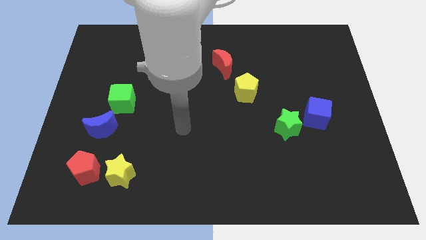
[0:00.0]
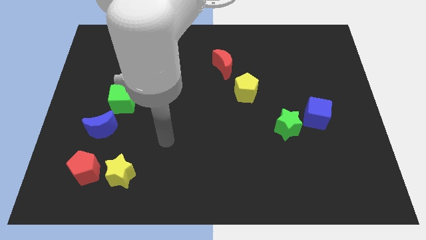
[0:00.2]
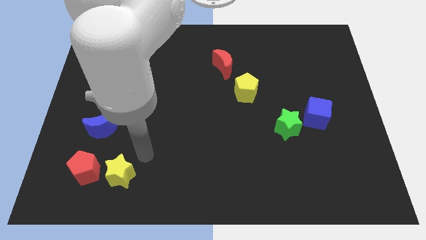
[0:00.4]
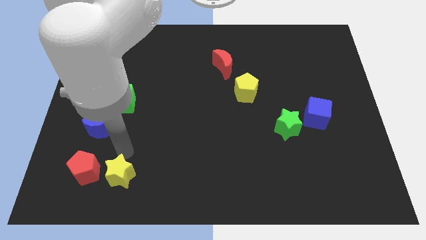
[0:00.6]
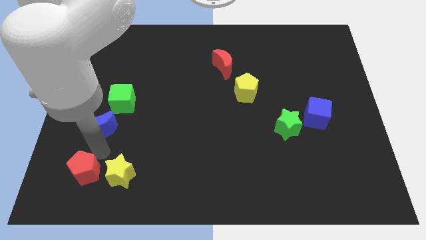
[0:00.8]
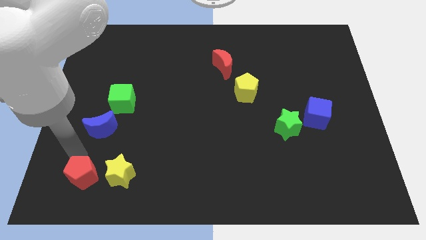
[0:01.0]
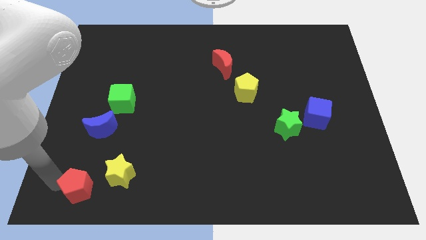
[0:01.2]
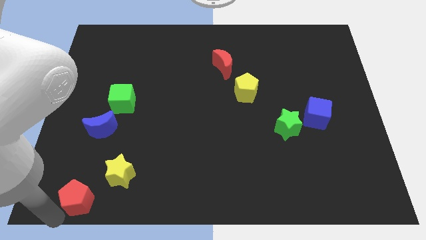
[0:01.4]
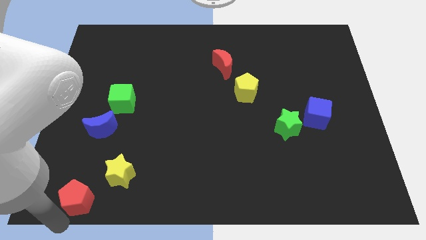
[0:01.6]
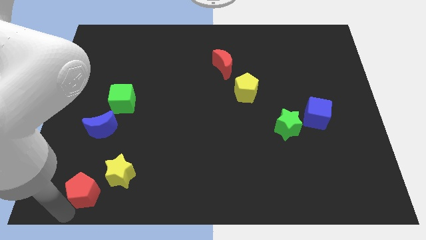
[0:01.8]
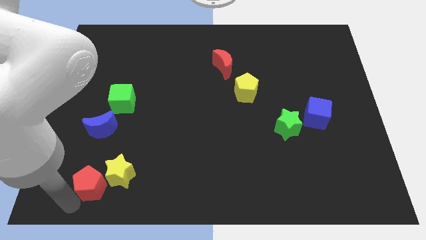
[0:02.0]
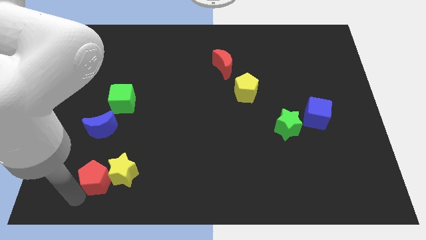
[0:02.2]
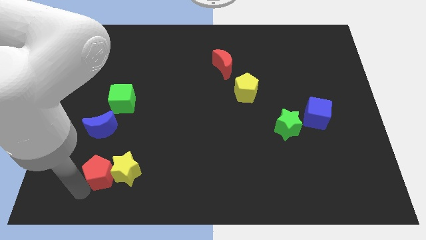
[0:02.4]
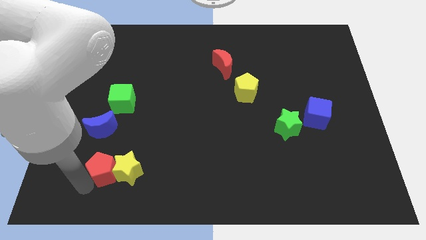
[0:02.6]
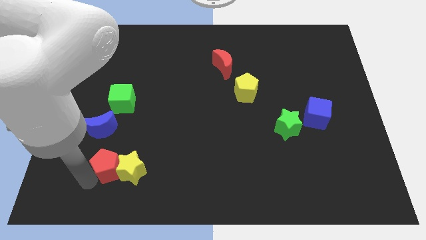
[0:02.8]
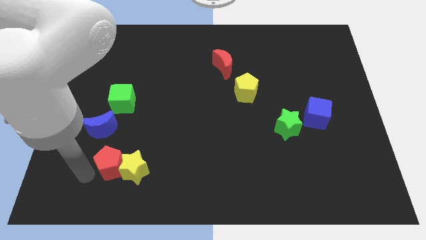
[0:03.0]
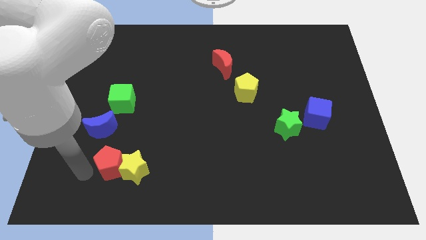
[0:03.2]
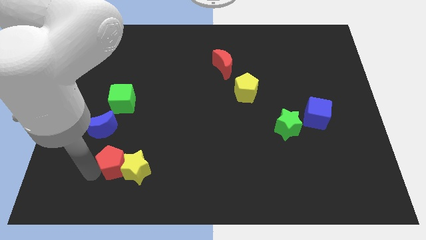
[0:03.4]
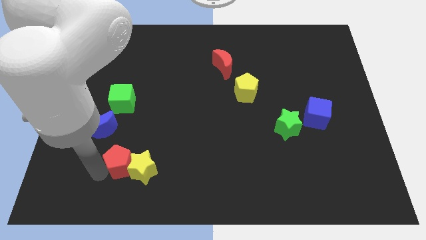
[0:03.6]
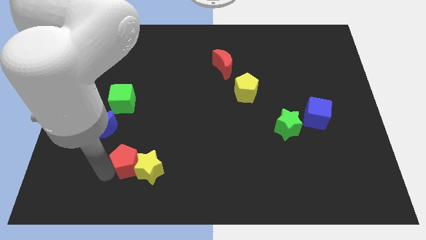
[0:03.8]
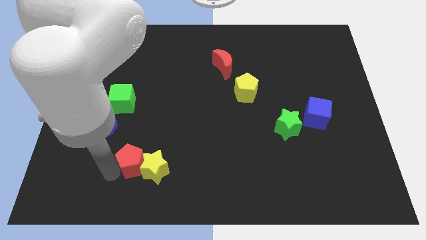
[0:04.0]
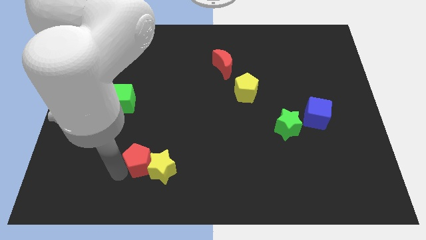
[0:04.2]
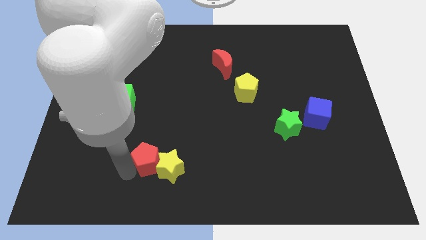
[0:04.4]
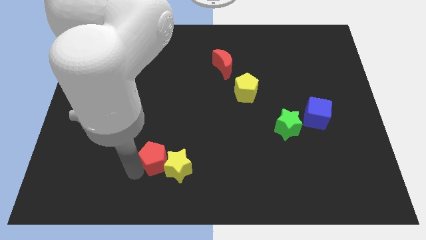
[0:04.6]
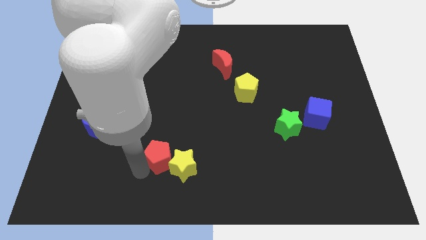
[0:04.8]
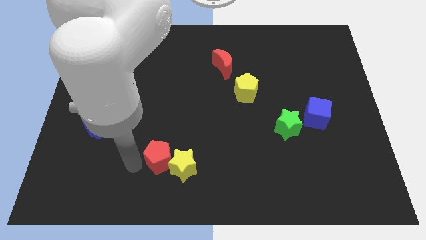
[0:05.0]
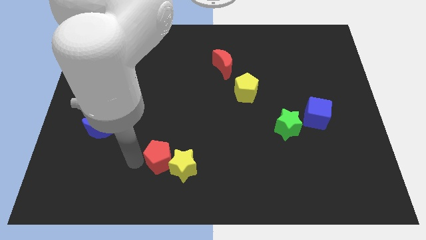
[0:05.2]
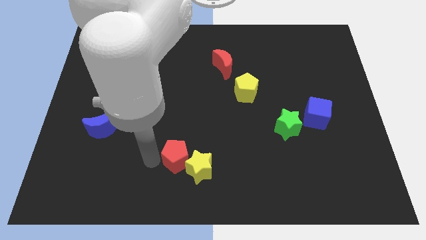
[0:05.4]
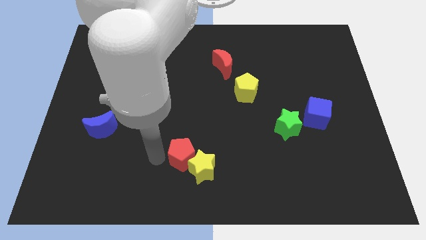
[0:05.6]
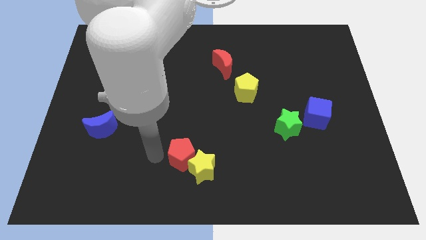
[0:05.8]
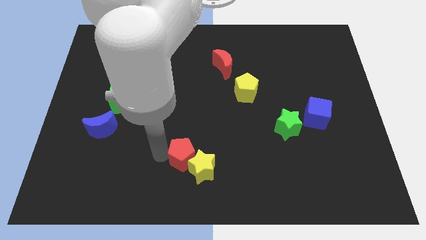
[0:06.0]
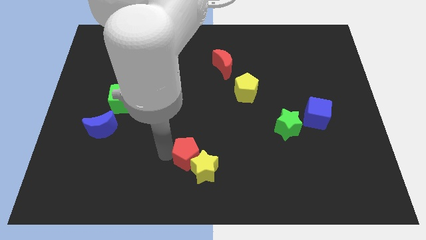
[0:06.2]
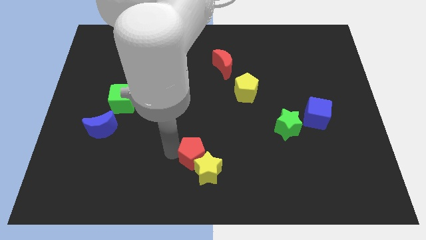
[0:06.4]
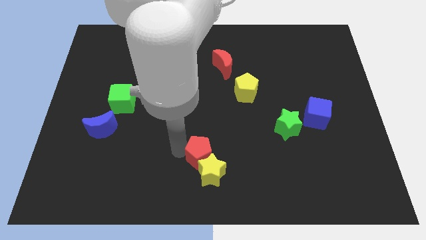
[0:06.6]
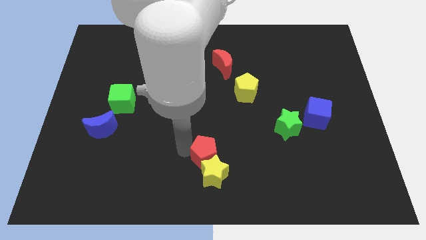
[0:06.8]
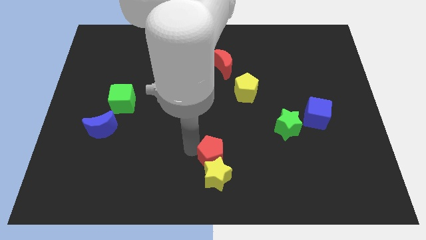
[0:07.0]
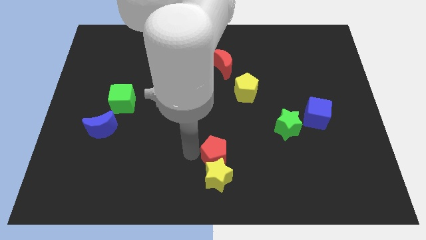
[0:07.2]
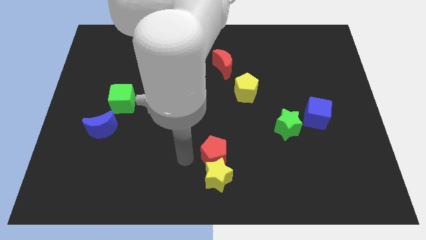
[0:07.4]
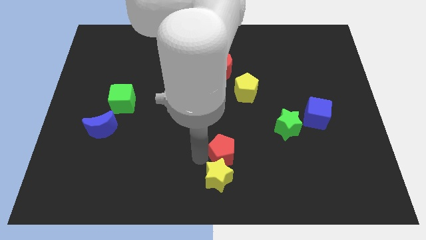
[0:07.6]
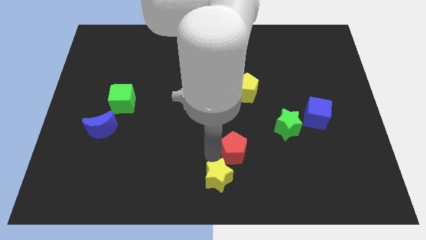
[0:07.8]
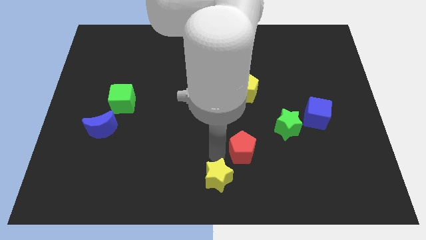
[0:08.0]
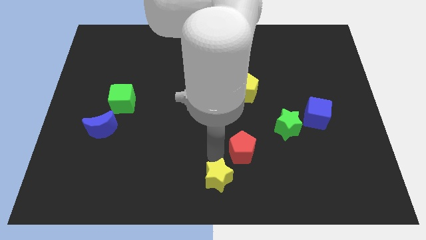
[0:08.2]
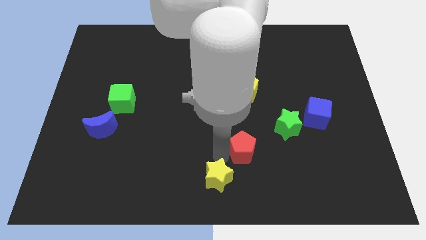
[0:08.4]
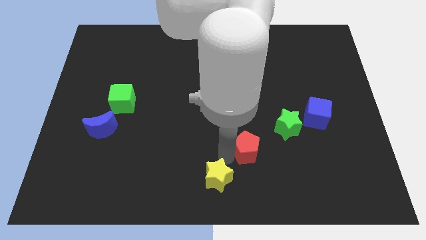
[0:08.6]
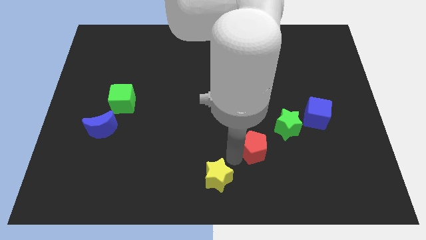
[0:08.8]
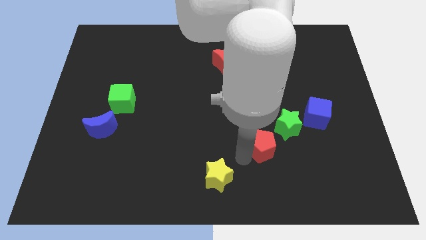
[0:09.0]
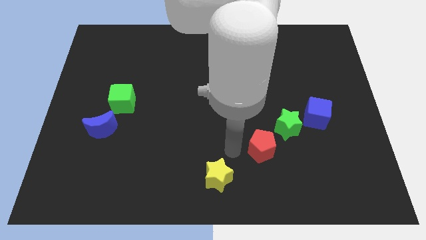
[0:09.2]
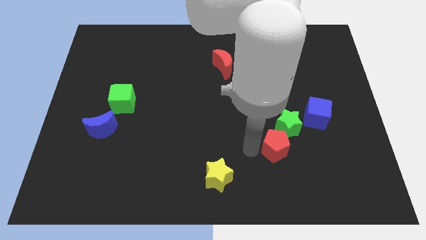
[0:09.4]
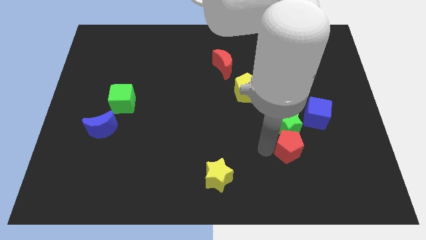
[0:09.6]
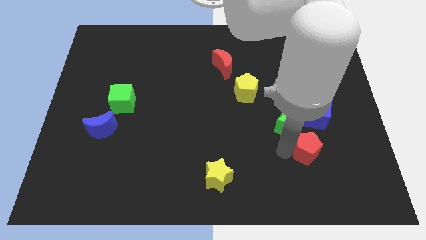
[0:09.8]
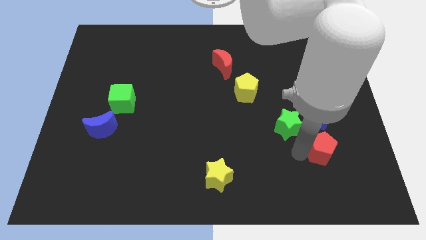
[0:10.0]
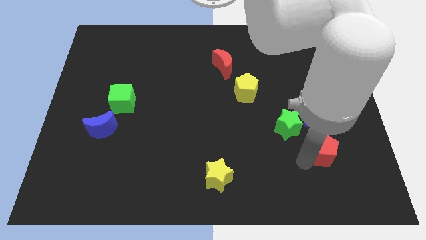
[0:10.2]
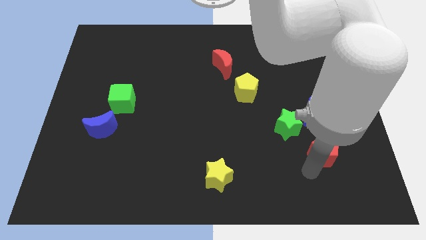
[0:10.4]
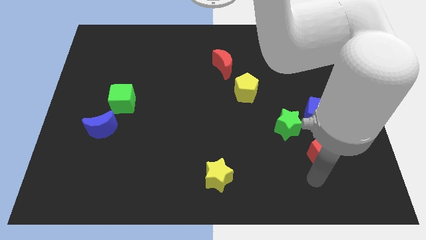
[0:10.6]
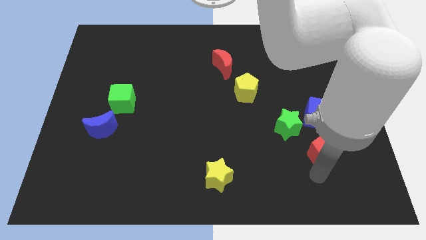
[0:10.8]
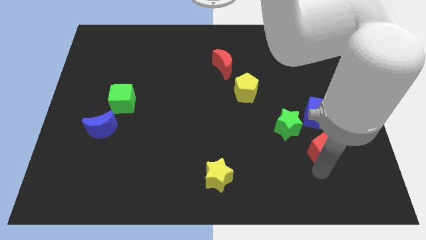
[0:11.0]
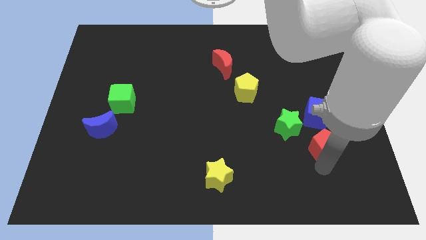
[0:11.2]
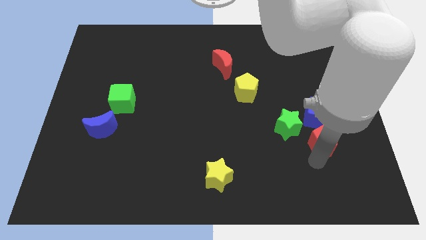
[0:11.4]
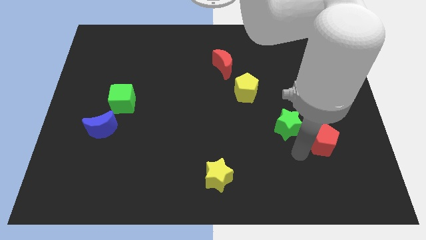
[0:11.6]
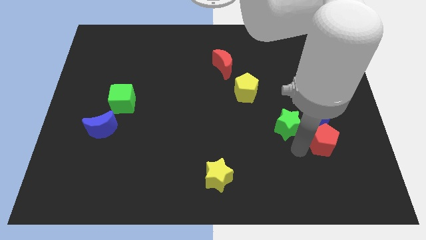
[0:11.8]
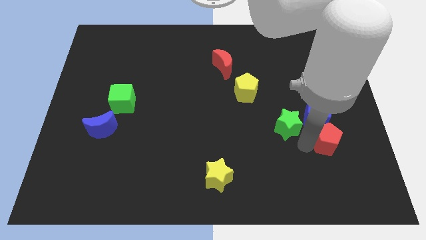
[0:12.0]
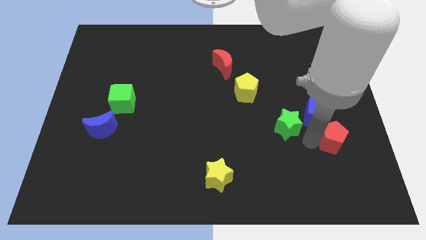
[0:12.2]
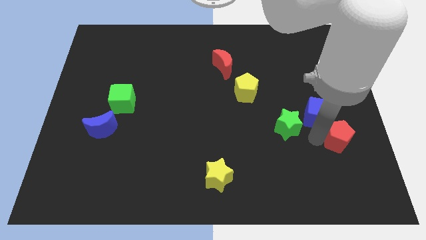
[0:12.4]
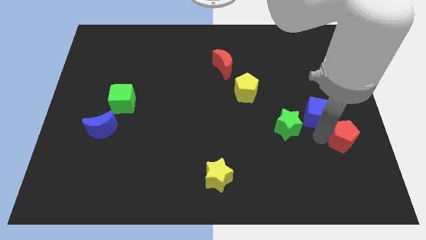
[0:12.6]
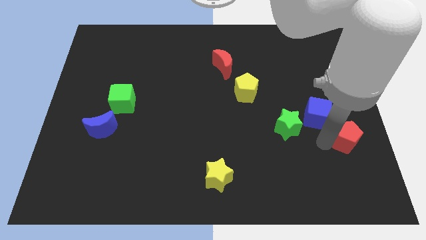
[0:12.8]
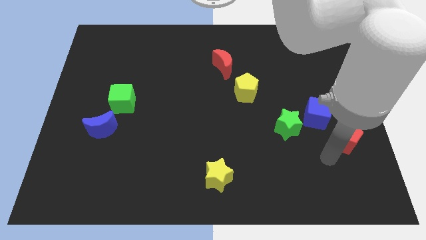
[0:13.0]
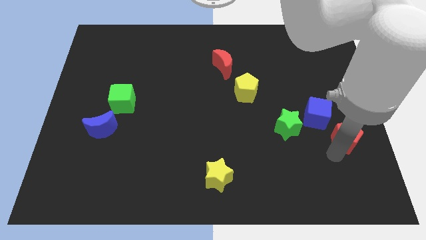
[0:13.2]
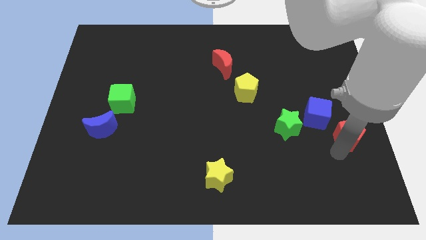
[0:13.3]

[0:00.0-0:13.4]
push the red pentagon to the center right
